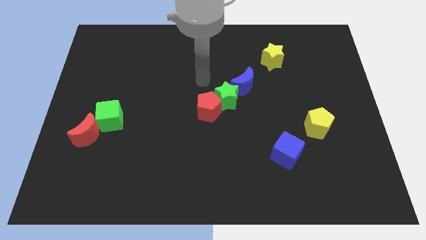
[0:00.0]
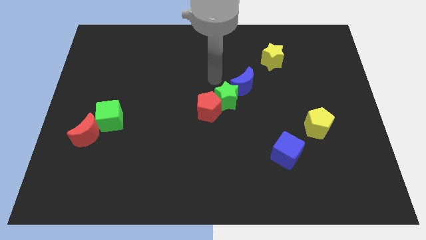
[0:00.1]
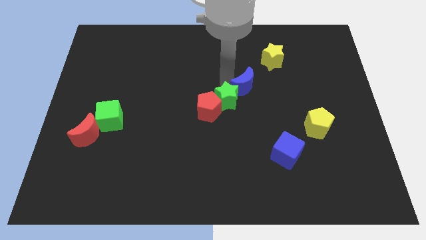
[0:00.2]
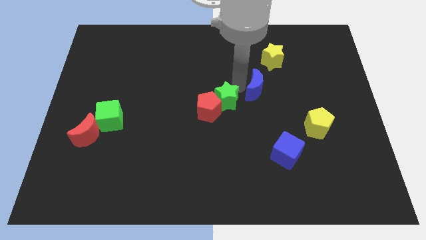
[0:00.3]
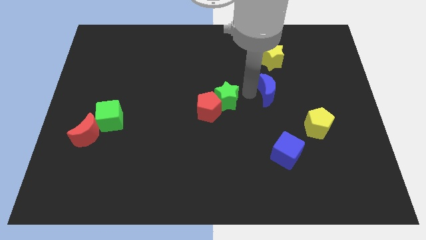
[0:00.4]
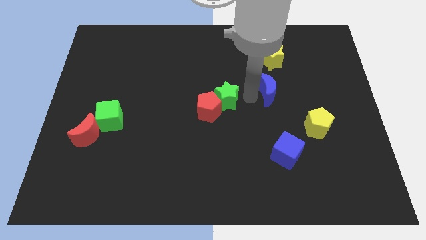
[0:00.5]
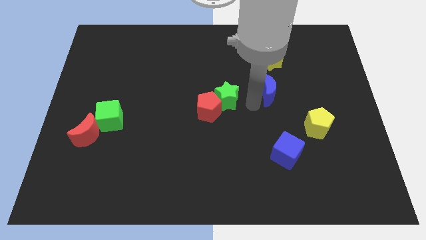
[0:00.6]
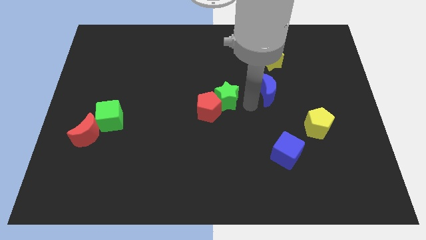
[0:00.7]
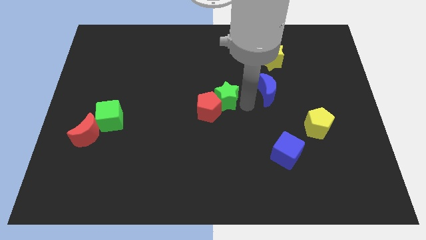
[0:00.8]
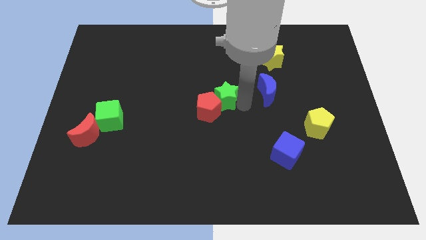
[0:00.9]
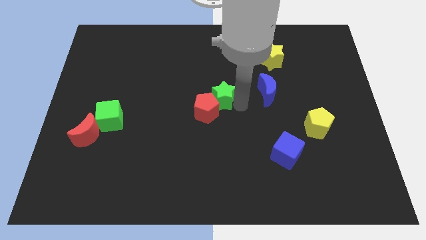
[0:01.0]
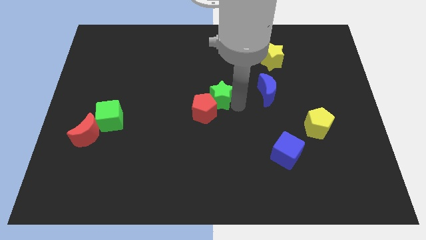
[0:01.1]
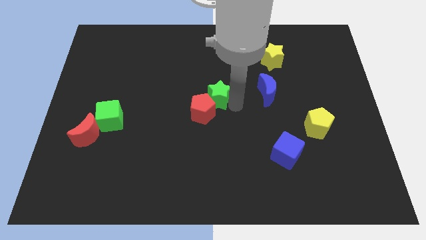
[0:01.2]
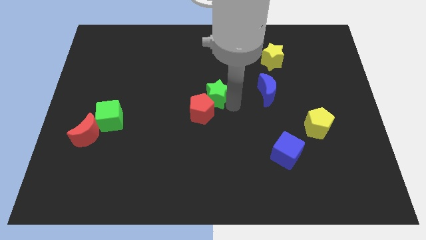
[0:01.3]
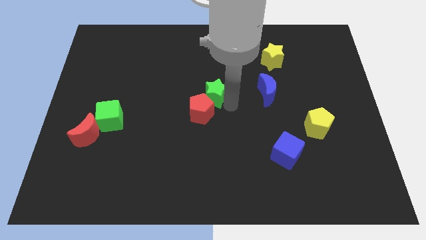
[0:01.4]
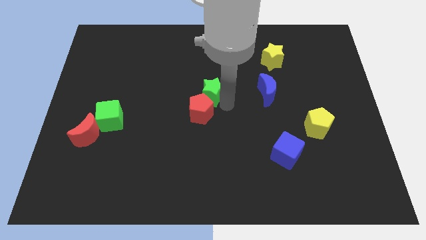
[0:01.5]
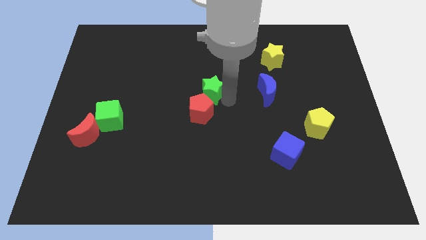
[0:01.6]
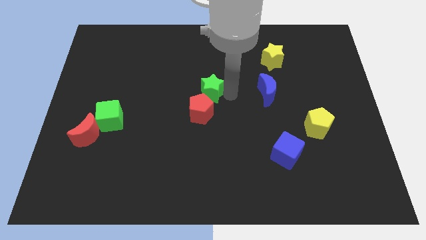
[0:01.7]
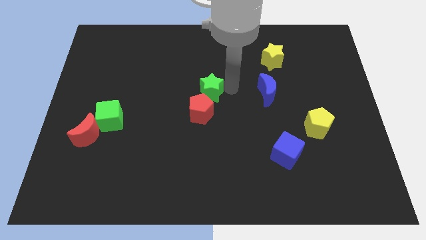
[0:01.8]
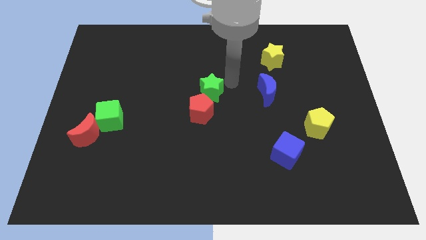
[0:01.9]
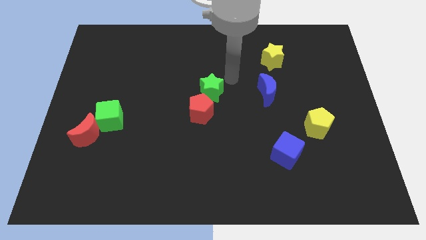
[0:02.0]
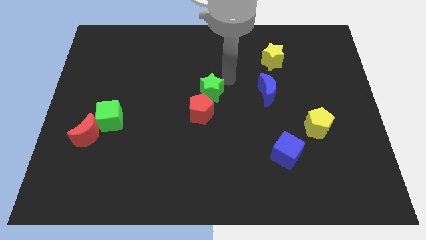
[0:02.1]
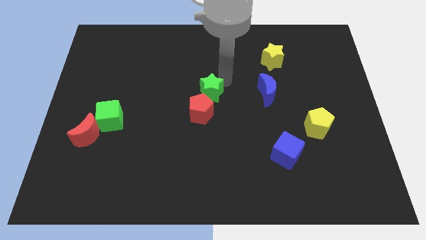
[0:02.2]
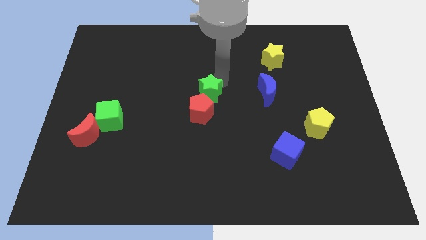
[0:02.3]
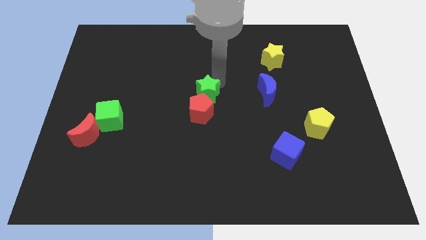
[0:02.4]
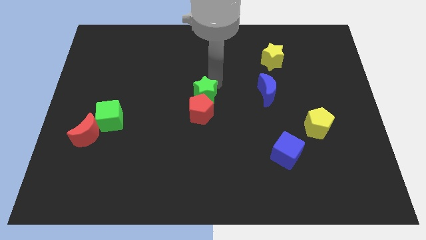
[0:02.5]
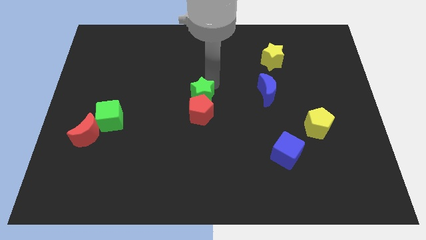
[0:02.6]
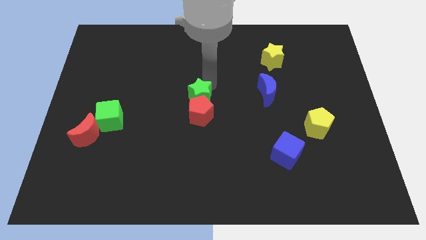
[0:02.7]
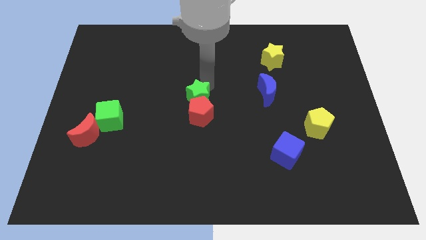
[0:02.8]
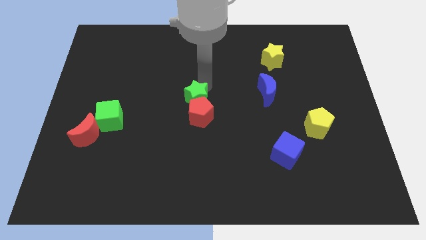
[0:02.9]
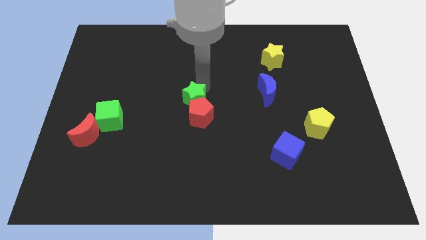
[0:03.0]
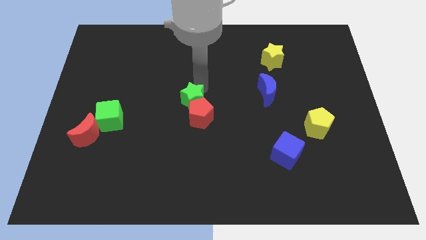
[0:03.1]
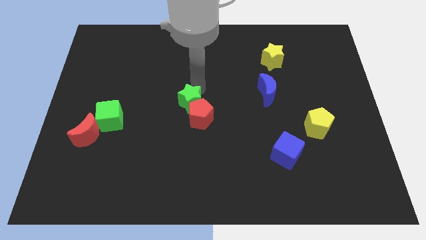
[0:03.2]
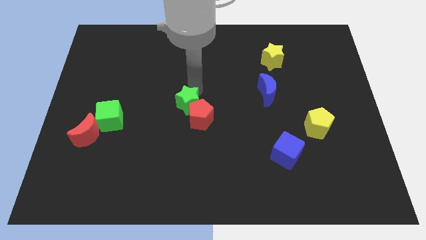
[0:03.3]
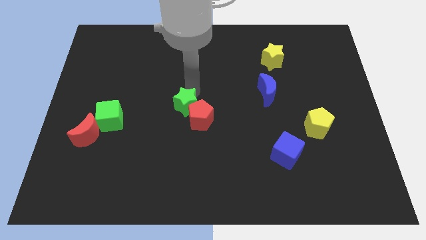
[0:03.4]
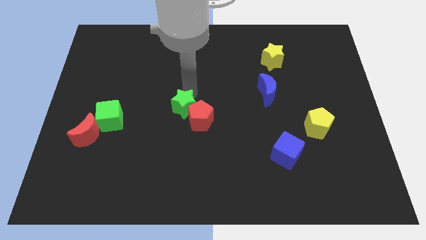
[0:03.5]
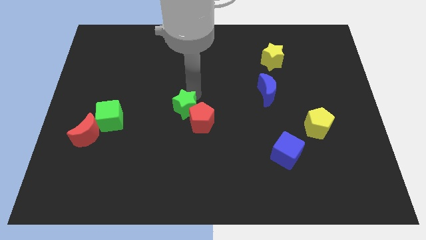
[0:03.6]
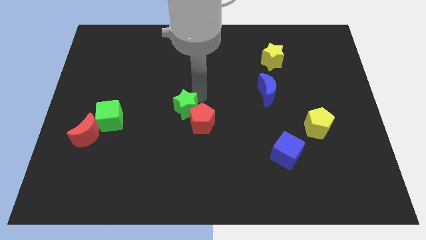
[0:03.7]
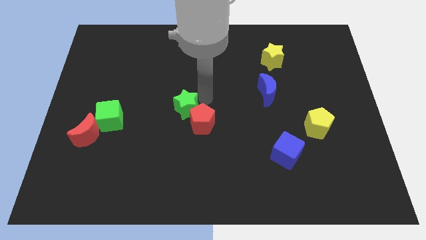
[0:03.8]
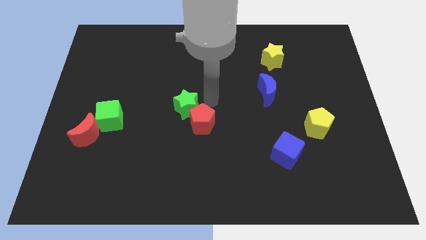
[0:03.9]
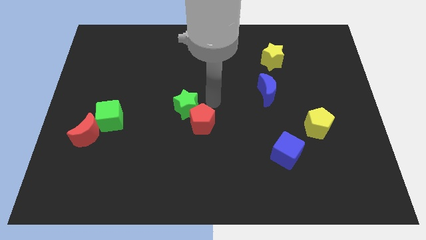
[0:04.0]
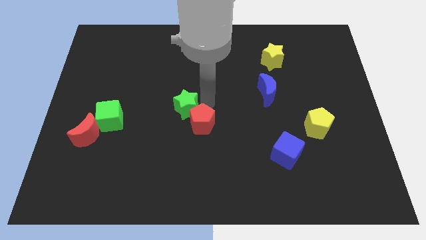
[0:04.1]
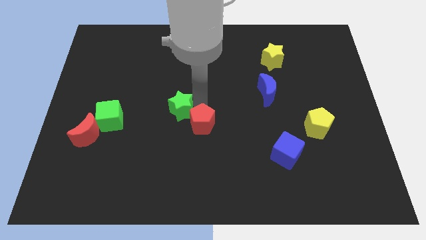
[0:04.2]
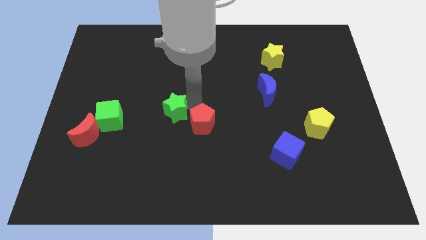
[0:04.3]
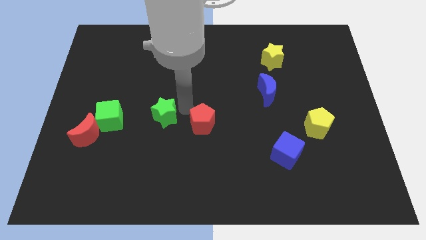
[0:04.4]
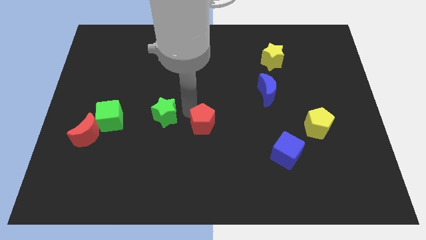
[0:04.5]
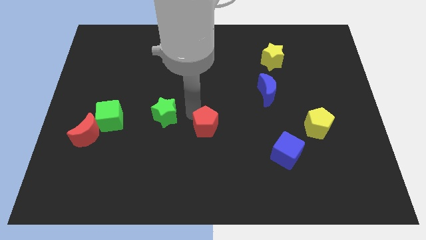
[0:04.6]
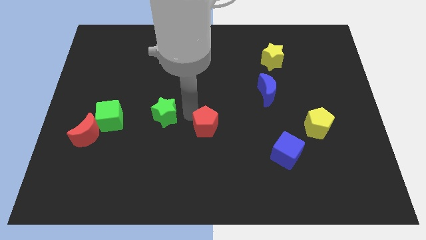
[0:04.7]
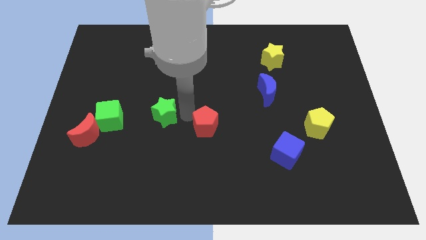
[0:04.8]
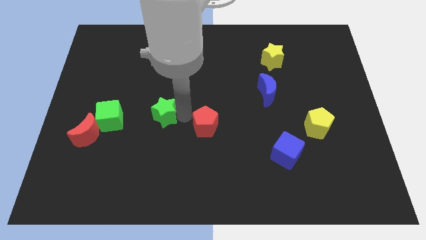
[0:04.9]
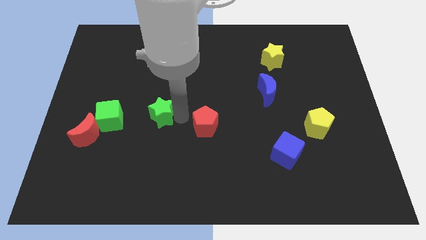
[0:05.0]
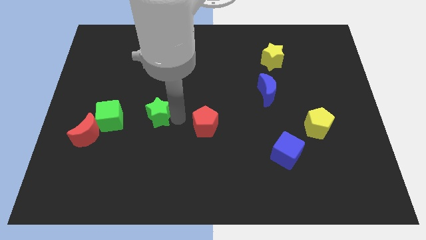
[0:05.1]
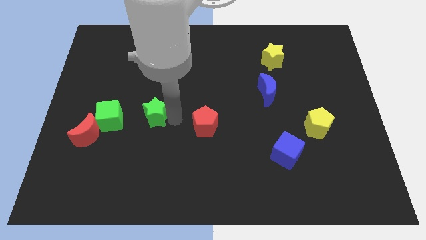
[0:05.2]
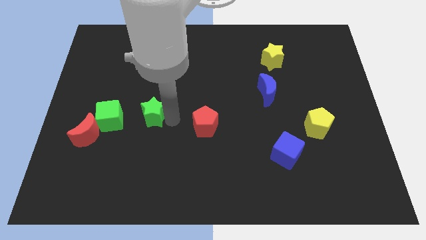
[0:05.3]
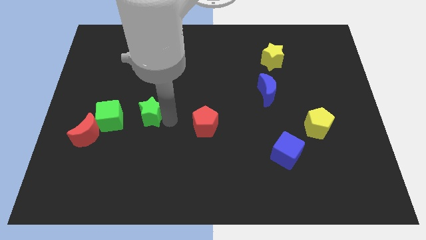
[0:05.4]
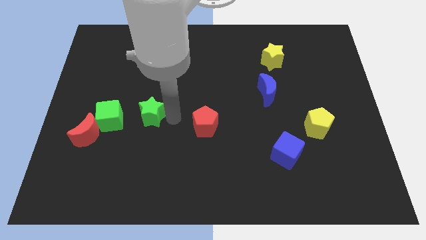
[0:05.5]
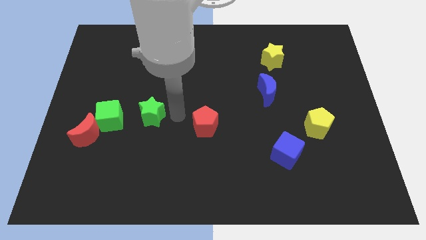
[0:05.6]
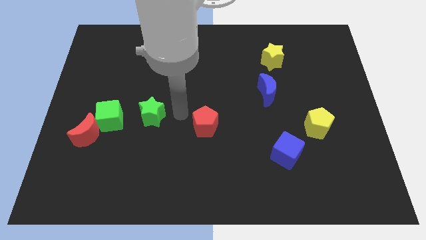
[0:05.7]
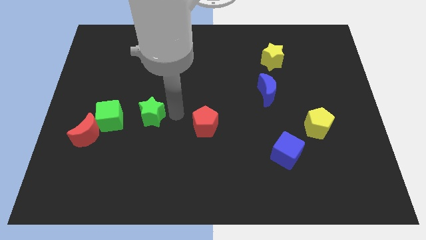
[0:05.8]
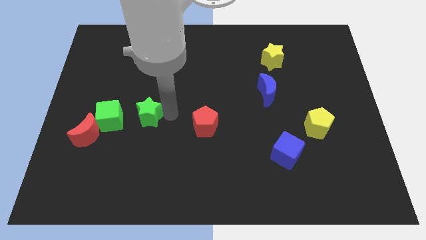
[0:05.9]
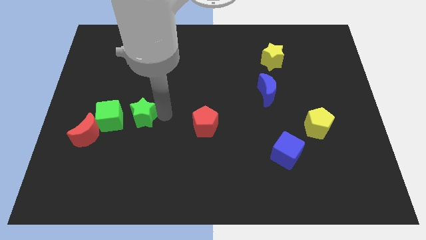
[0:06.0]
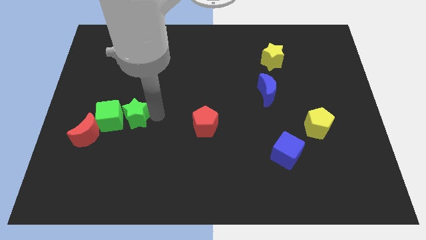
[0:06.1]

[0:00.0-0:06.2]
slide the green star to the green cube

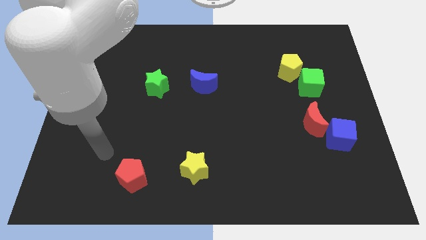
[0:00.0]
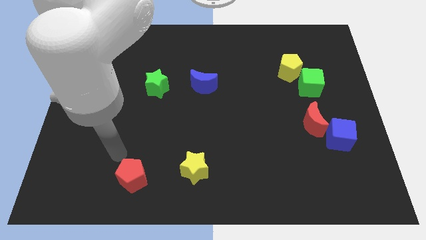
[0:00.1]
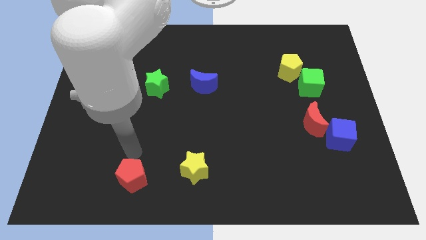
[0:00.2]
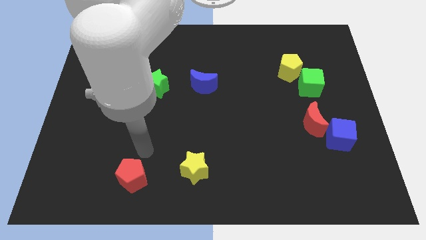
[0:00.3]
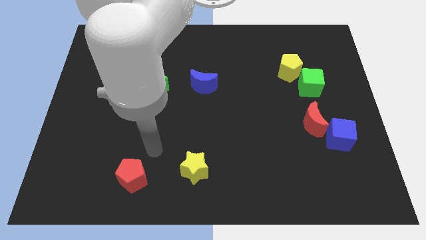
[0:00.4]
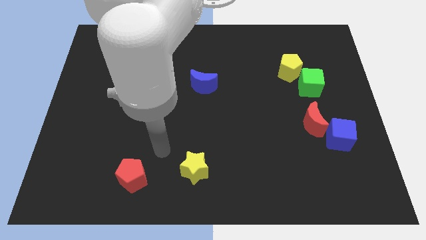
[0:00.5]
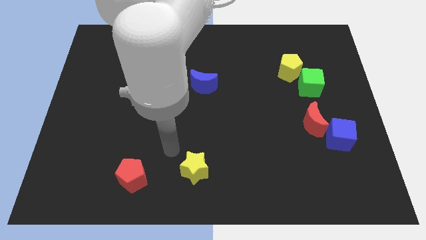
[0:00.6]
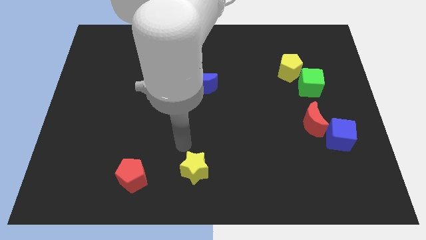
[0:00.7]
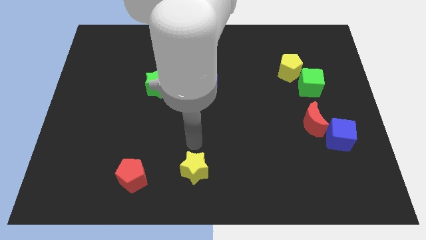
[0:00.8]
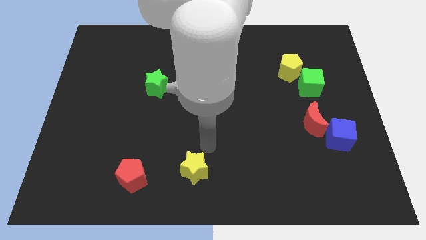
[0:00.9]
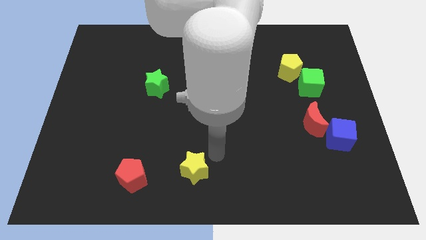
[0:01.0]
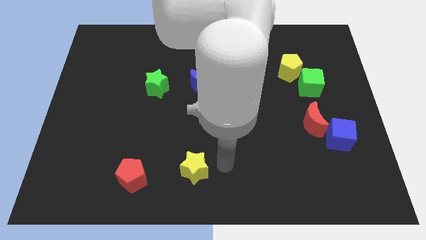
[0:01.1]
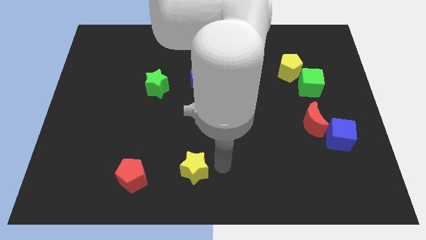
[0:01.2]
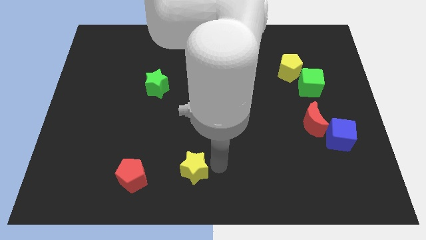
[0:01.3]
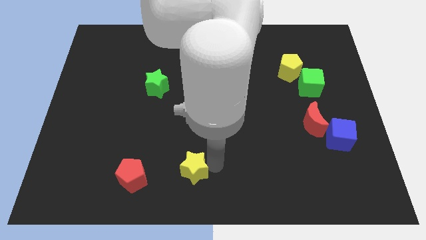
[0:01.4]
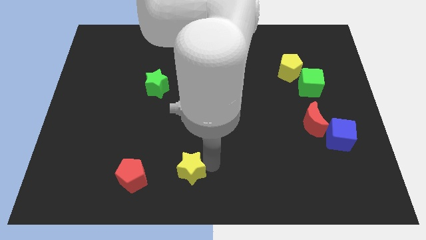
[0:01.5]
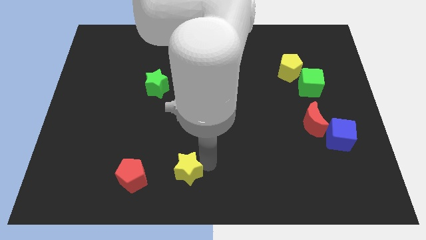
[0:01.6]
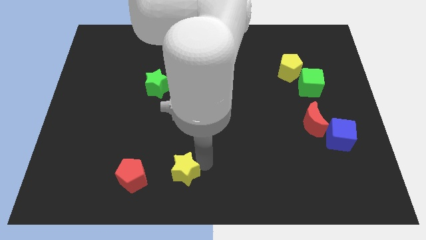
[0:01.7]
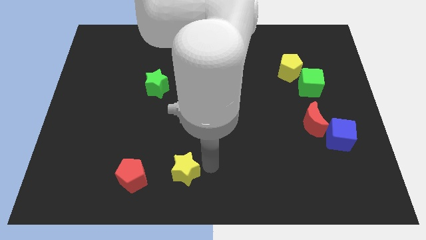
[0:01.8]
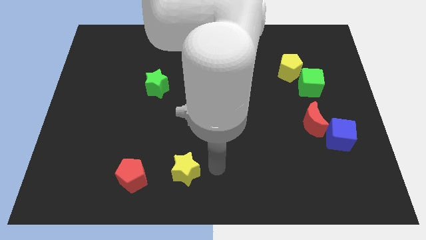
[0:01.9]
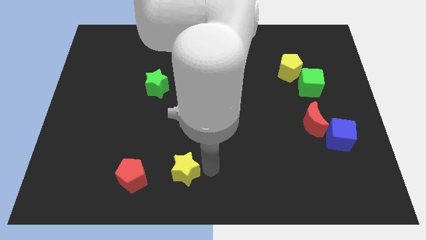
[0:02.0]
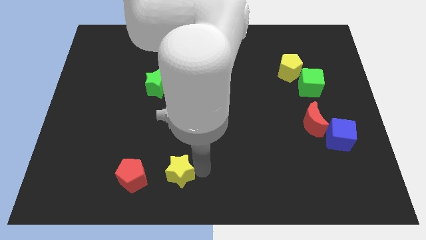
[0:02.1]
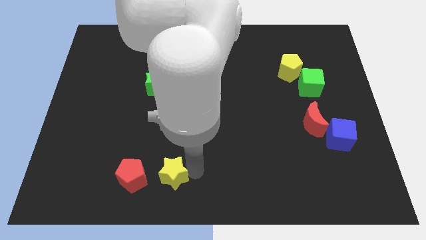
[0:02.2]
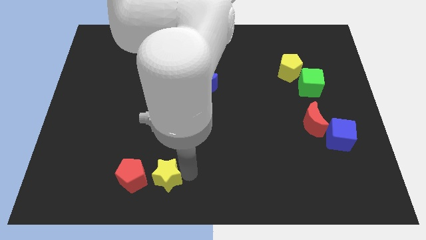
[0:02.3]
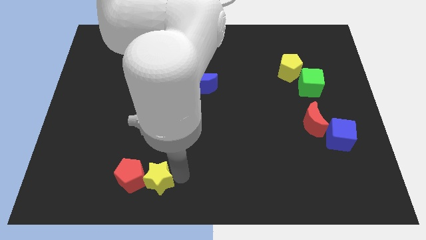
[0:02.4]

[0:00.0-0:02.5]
put the yellow star to the red pentagon
